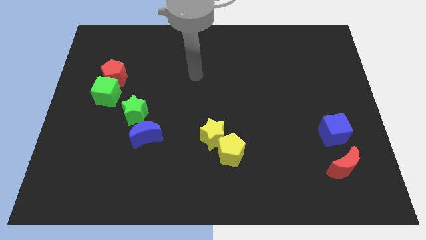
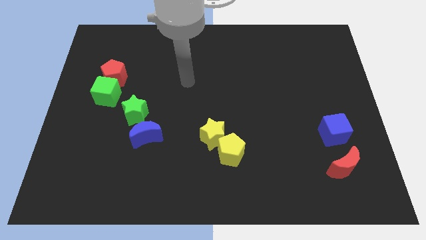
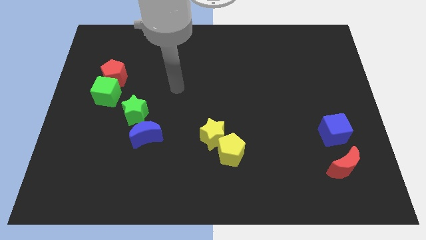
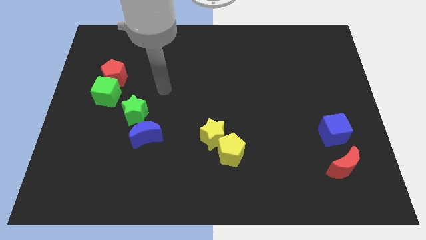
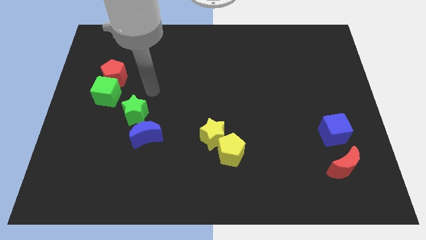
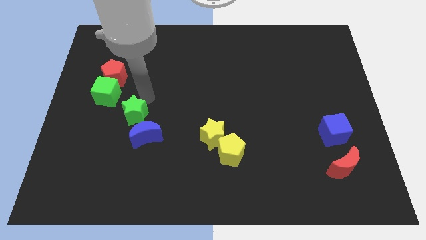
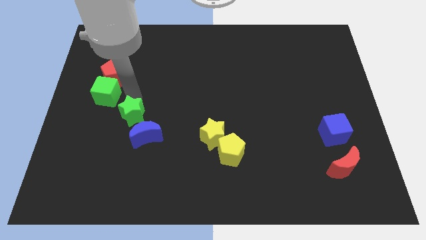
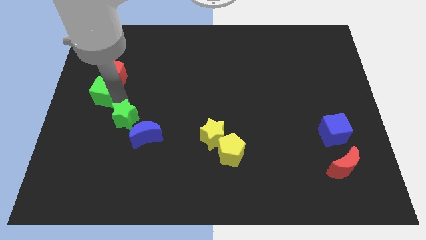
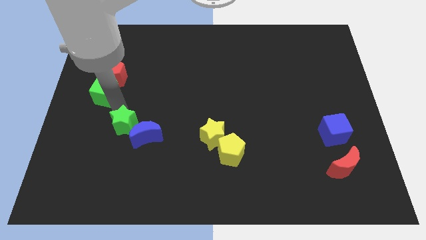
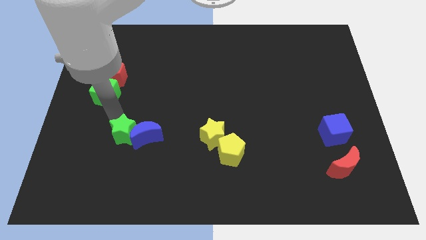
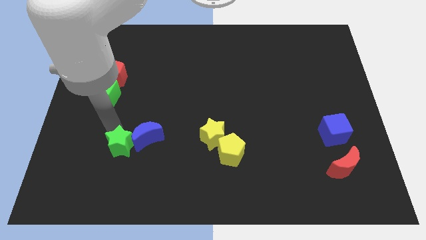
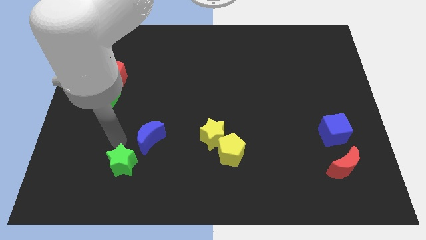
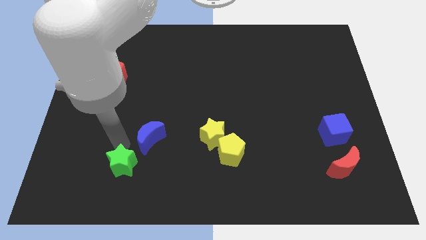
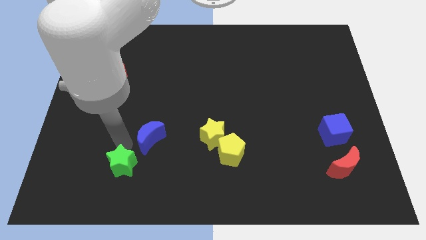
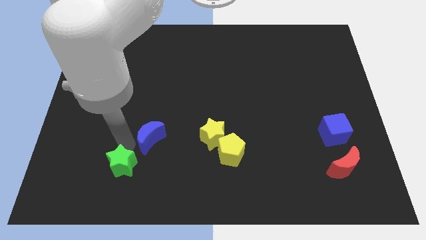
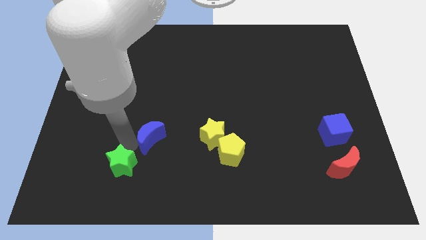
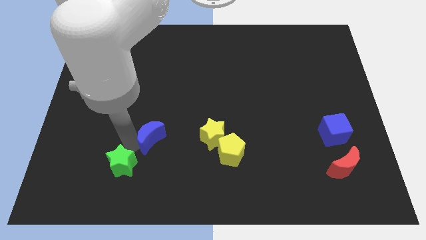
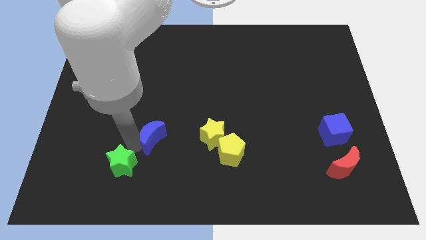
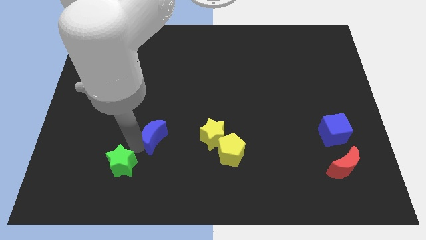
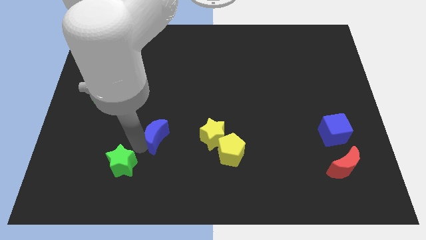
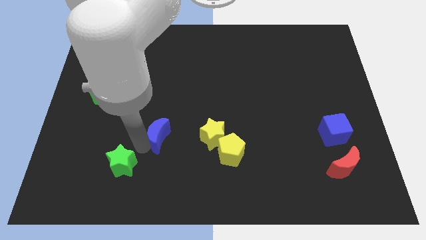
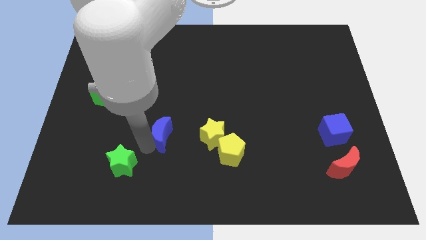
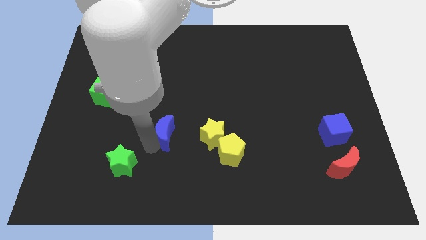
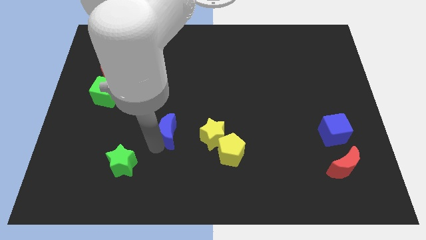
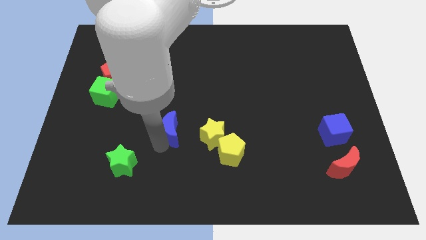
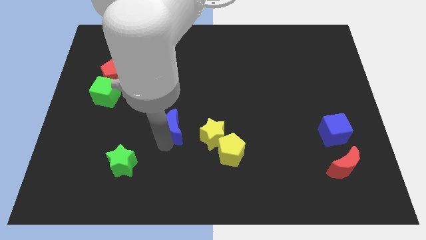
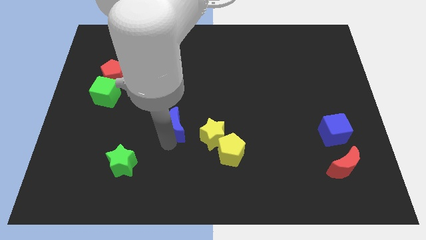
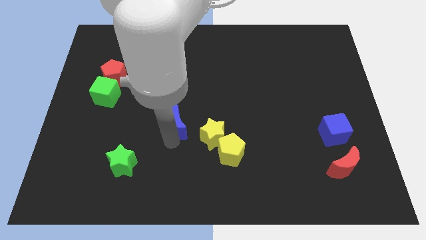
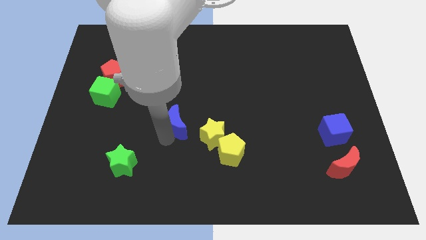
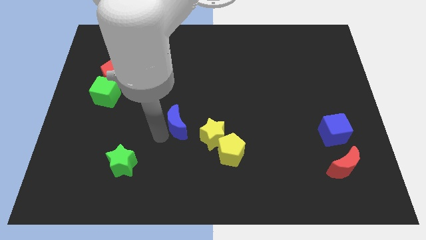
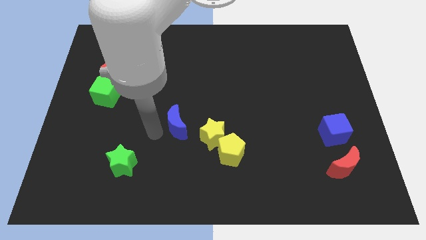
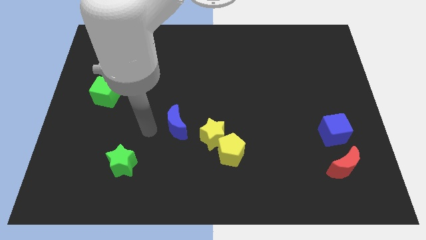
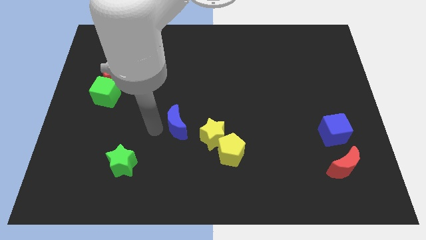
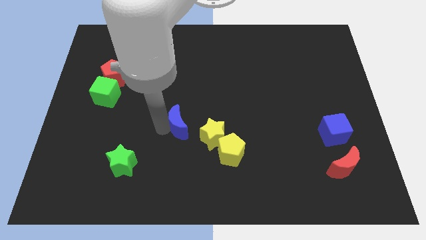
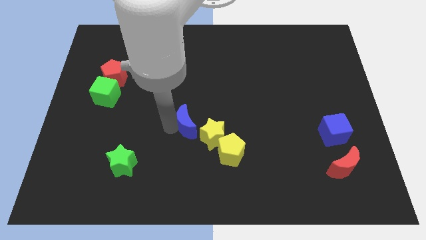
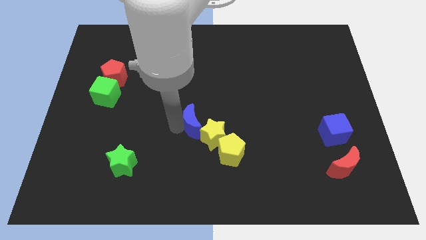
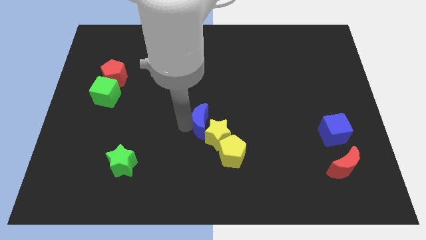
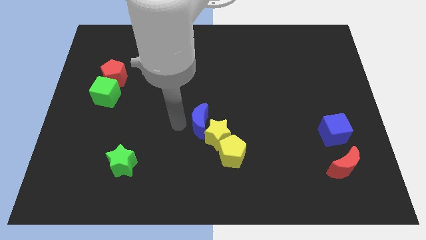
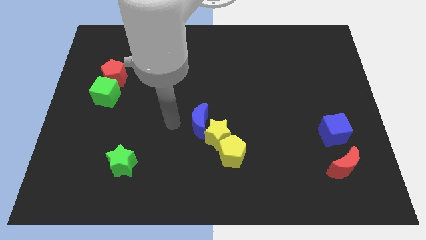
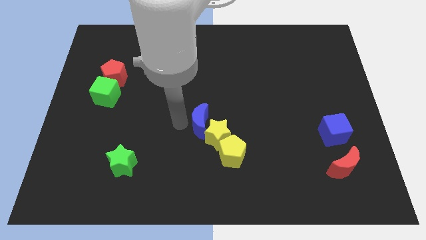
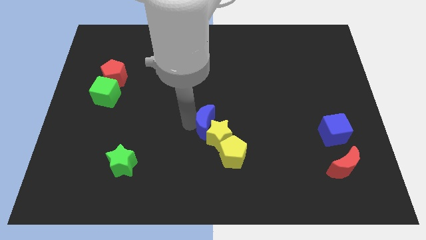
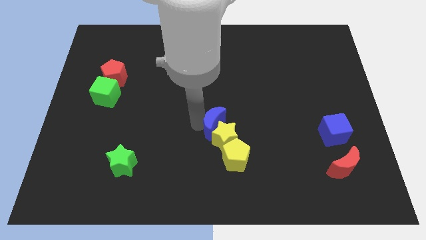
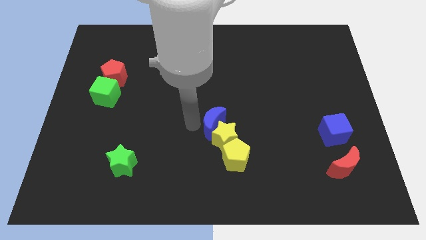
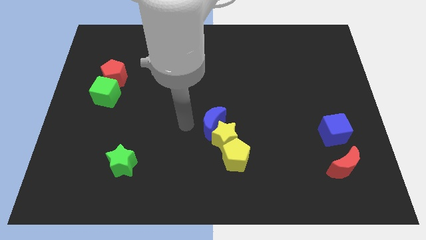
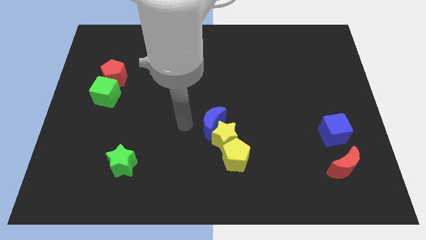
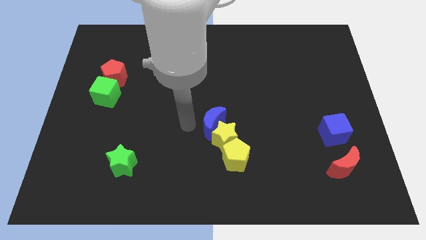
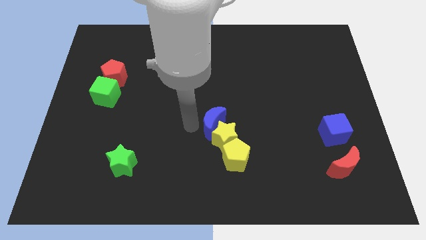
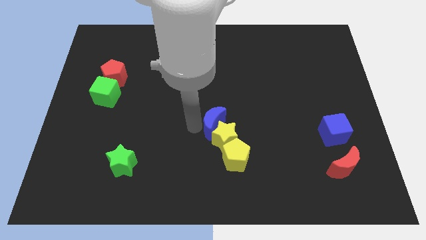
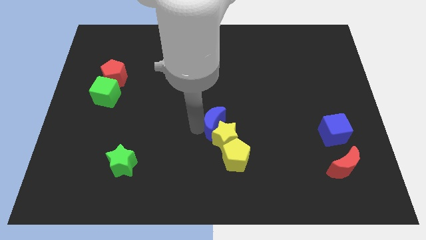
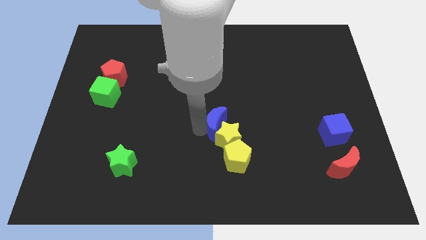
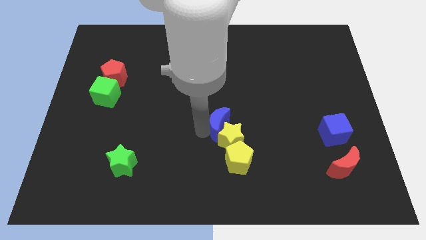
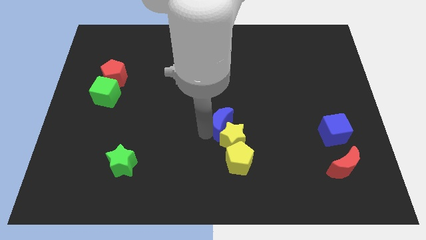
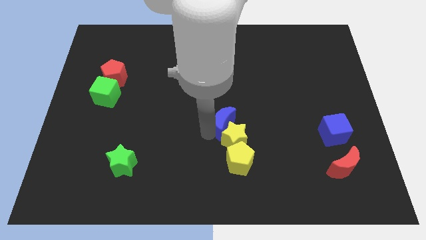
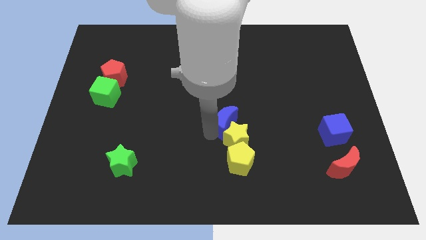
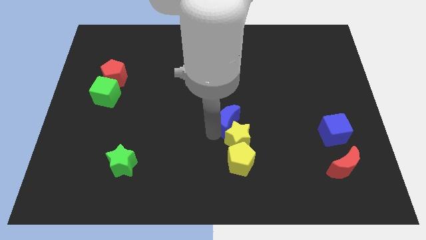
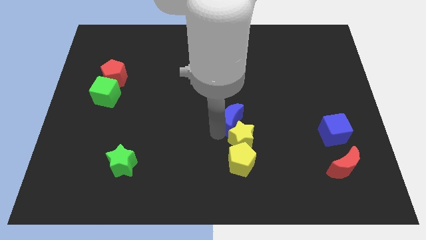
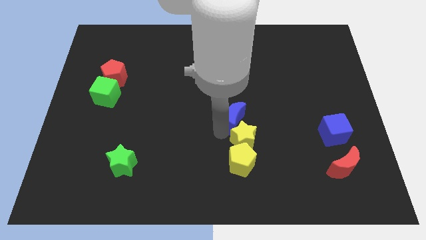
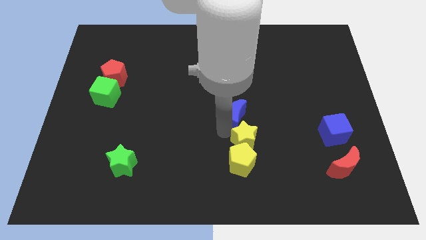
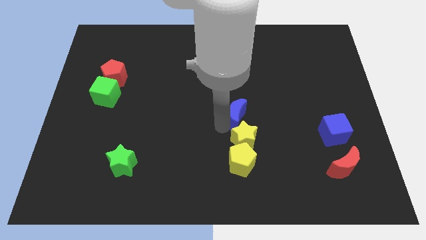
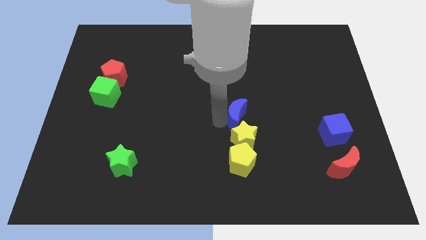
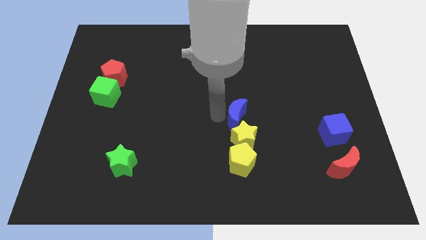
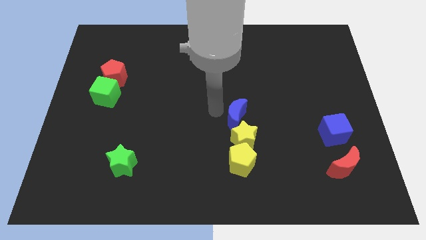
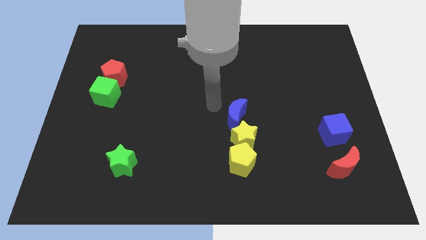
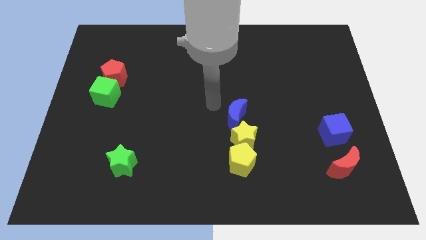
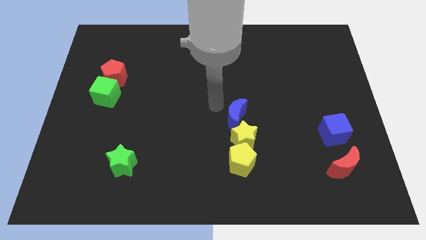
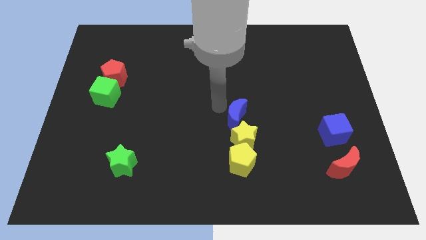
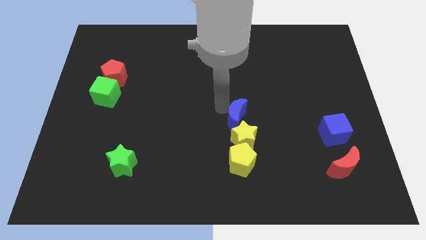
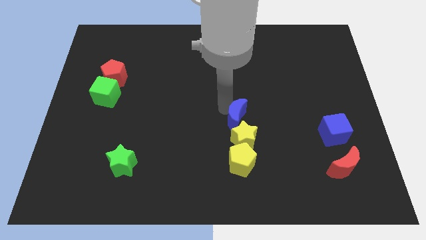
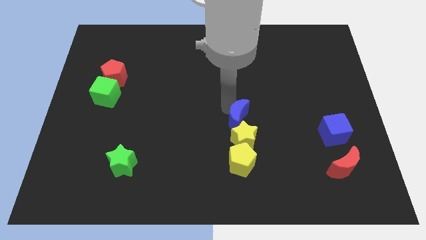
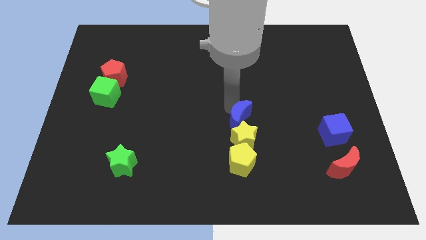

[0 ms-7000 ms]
move the blue moon right

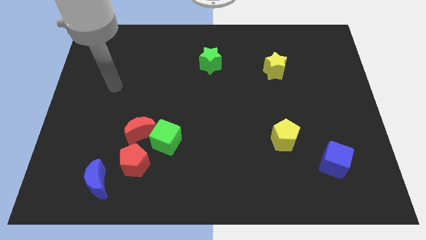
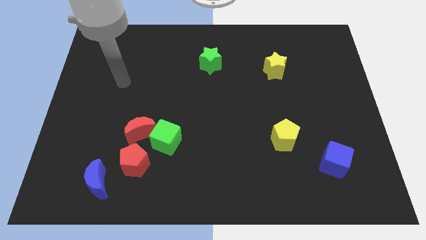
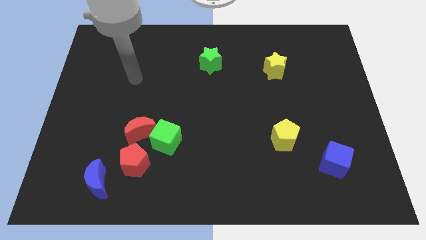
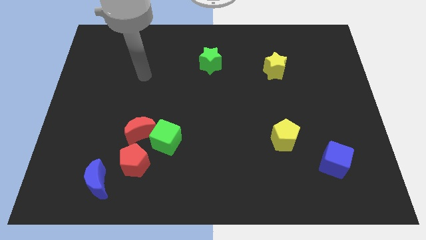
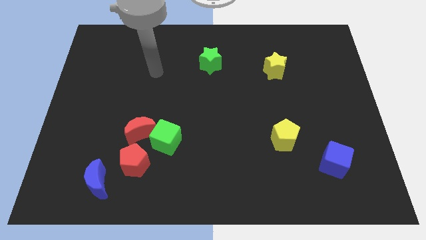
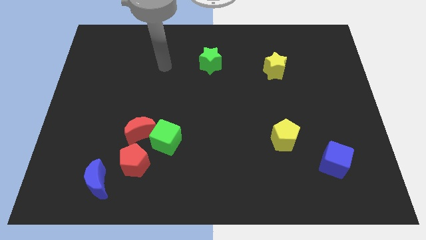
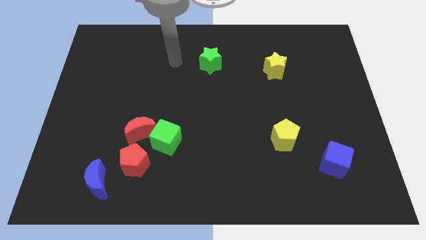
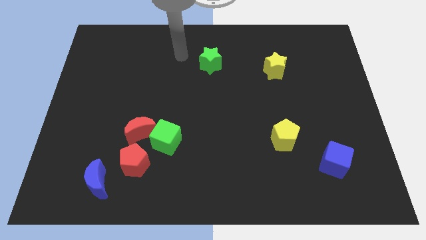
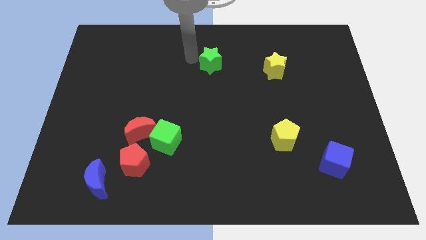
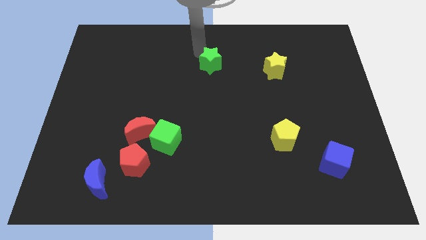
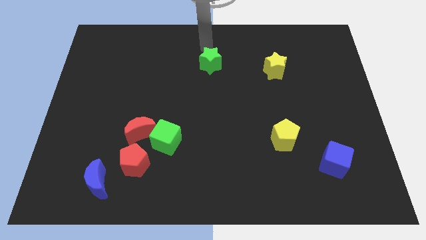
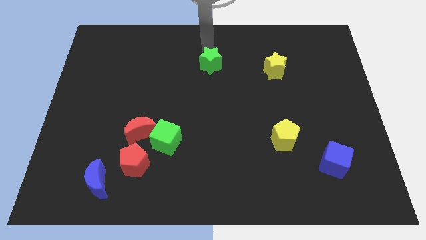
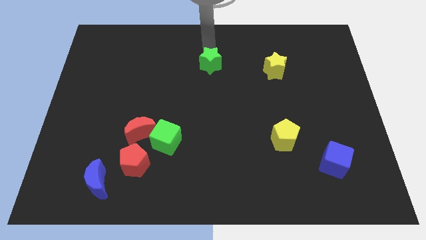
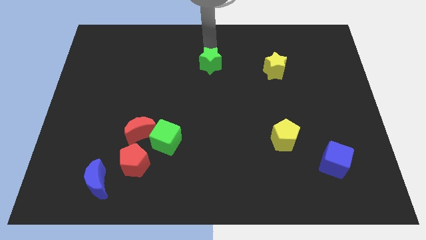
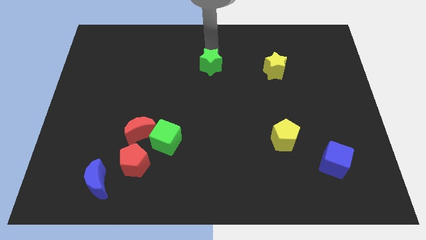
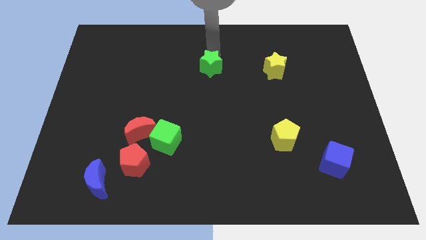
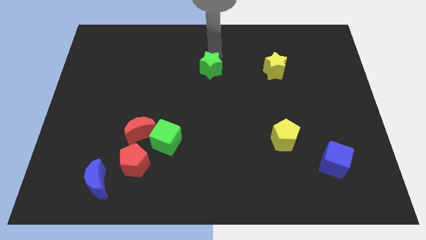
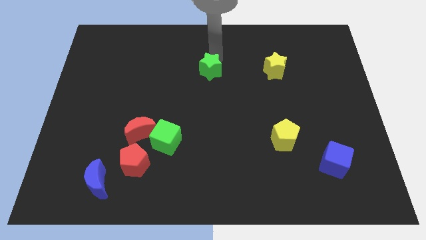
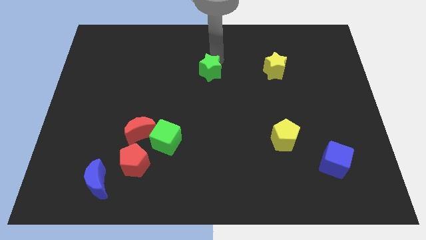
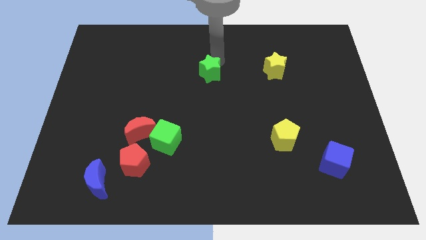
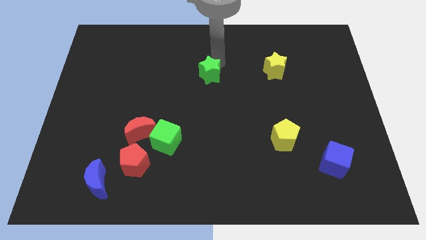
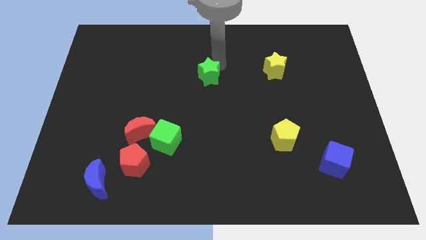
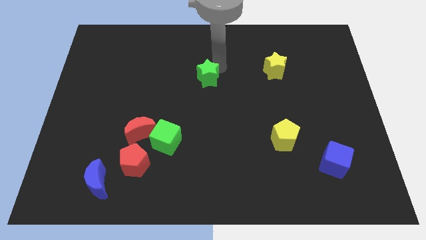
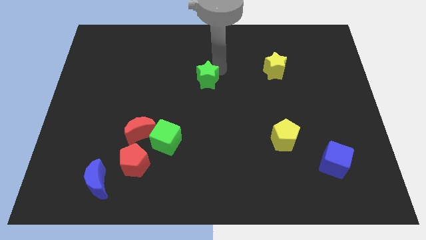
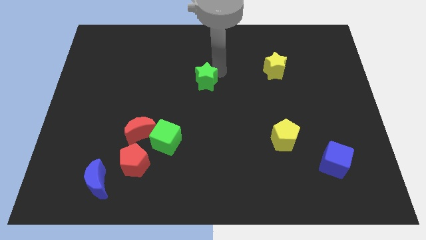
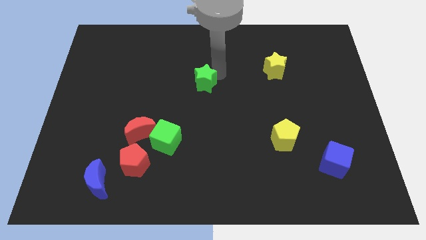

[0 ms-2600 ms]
slightly move the green star down
